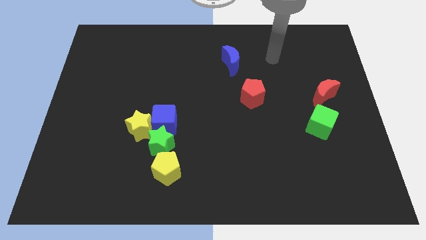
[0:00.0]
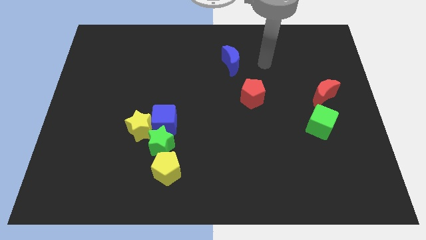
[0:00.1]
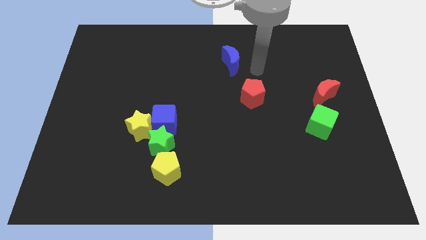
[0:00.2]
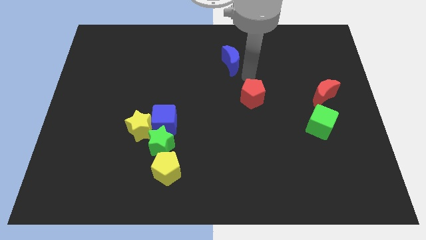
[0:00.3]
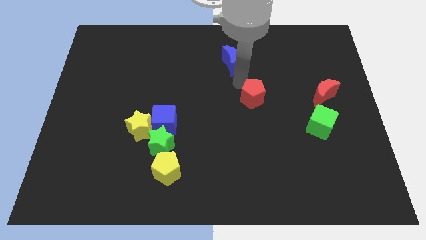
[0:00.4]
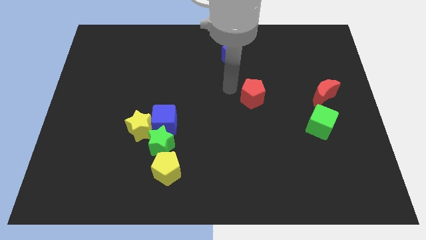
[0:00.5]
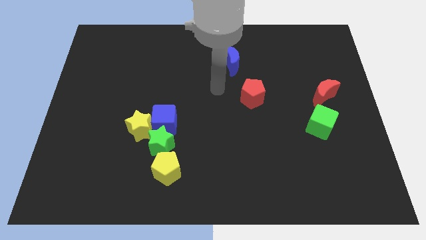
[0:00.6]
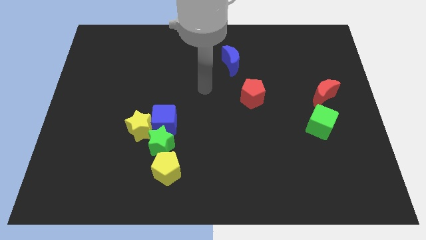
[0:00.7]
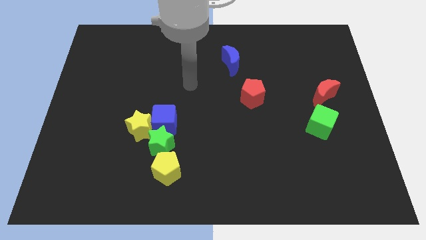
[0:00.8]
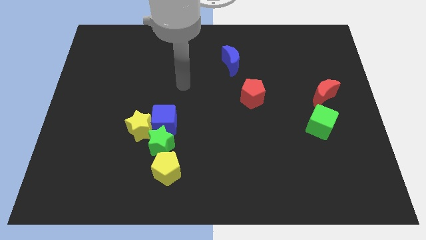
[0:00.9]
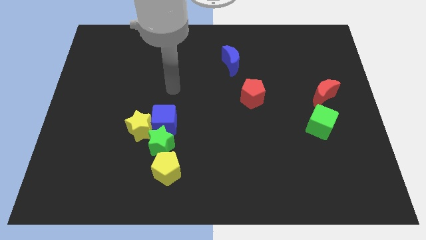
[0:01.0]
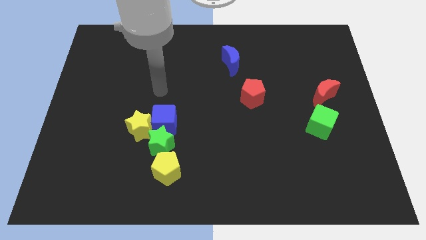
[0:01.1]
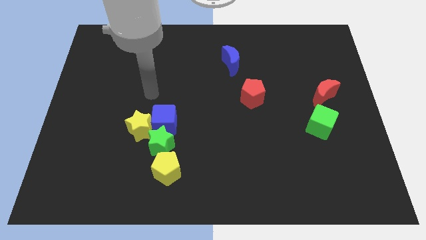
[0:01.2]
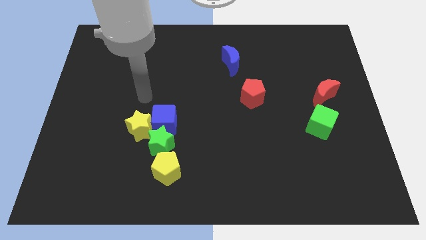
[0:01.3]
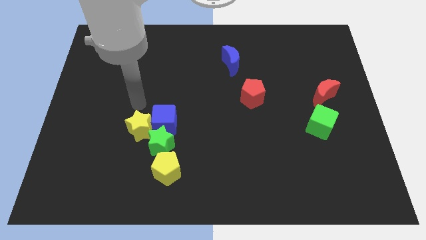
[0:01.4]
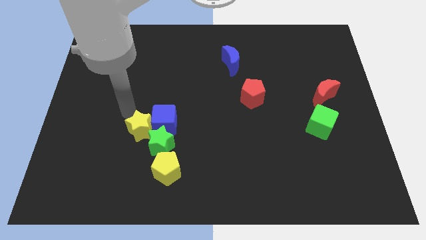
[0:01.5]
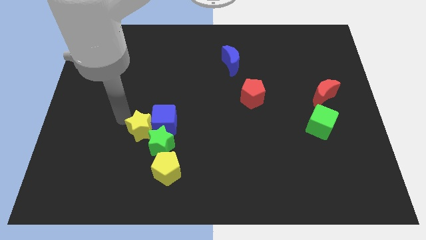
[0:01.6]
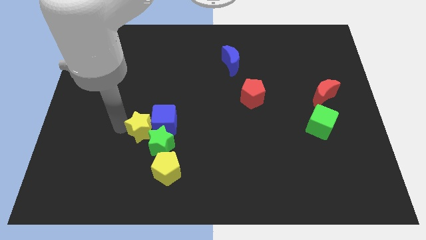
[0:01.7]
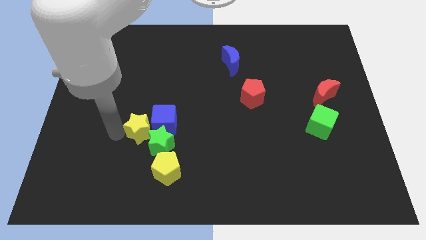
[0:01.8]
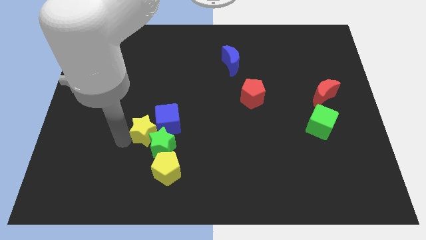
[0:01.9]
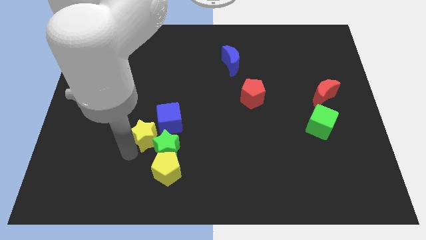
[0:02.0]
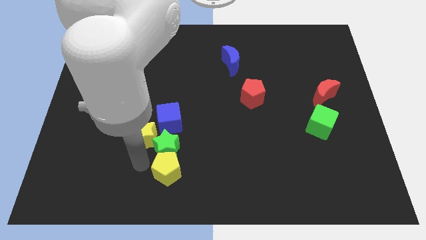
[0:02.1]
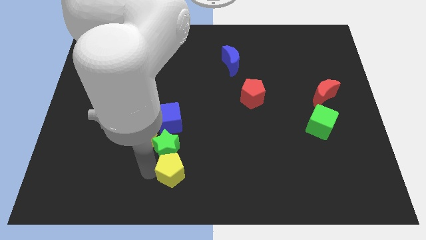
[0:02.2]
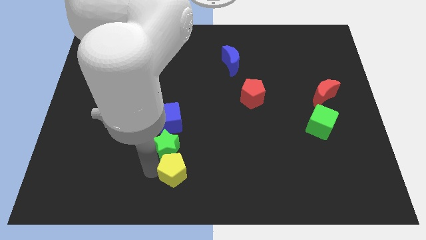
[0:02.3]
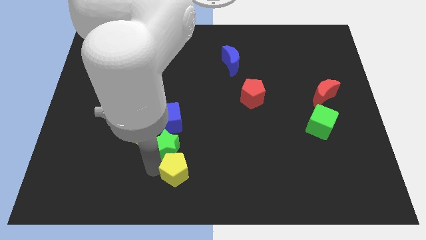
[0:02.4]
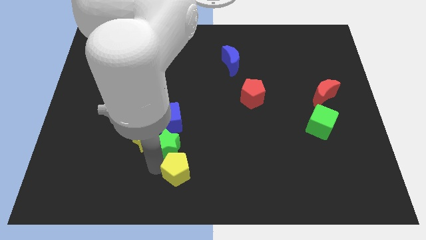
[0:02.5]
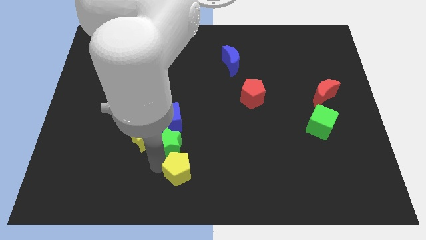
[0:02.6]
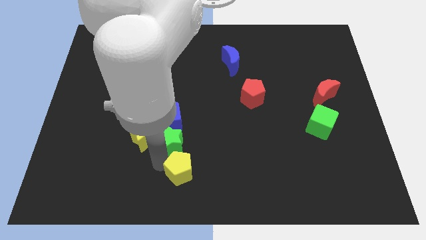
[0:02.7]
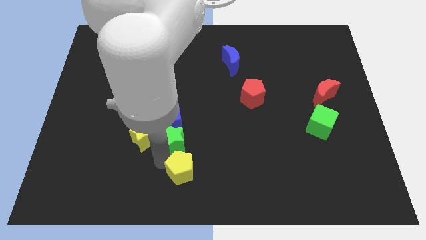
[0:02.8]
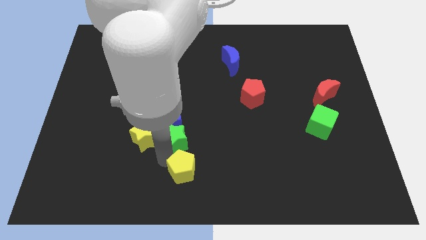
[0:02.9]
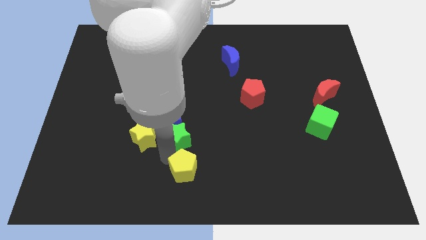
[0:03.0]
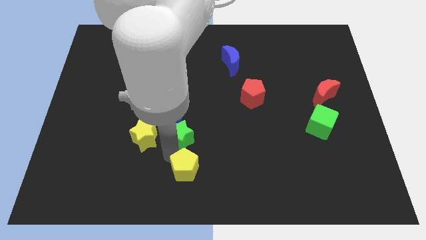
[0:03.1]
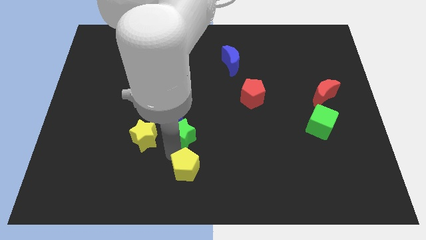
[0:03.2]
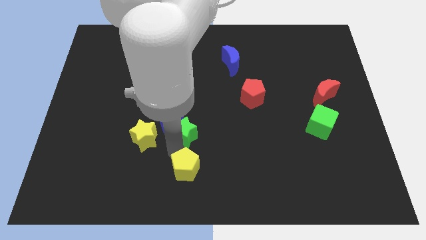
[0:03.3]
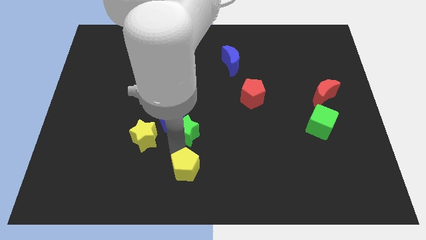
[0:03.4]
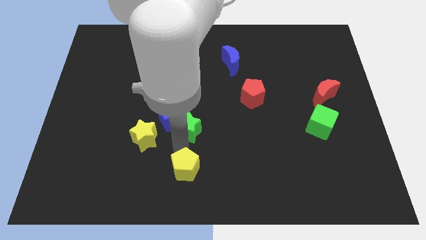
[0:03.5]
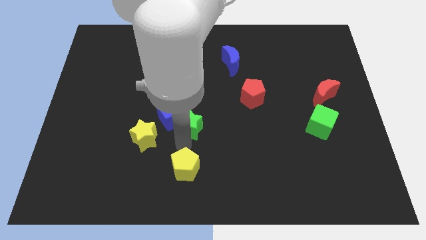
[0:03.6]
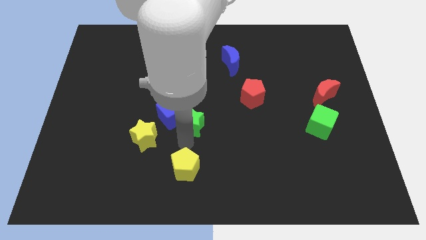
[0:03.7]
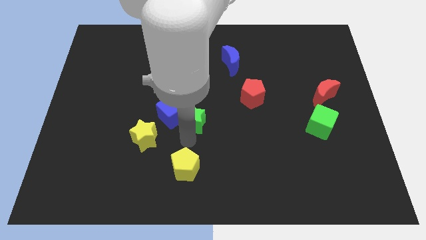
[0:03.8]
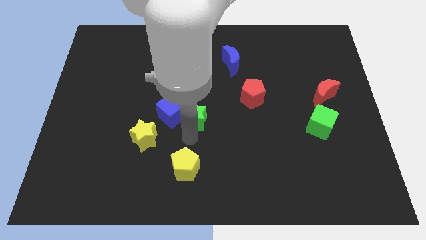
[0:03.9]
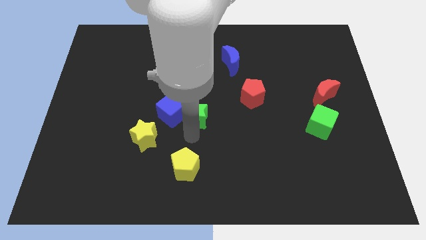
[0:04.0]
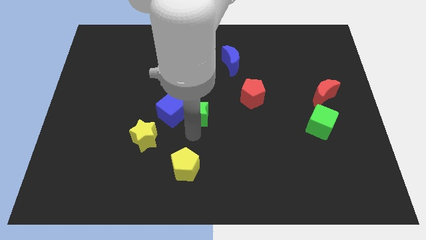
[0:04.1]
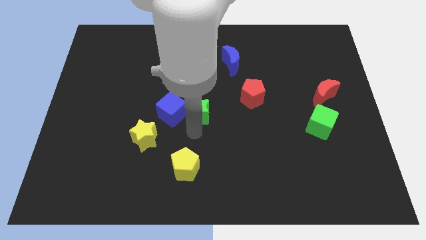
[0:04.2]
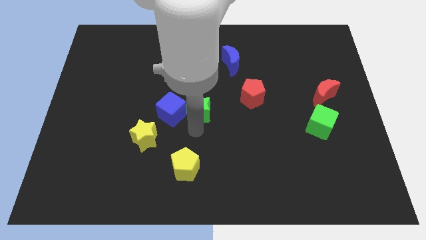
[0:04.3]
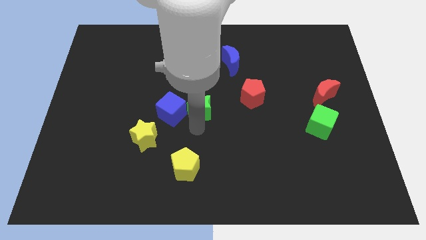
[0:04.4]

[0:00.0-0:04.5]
push the green star slightly upwards

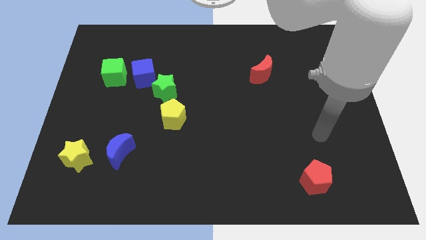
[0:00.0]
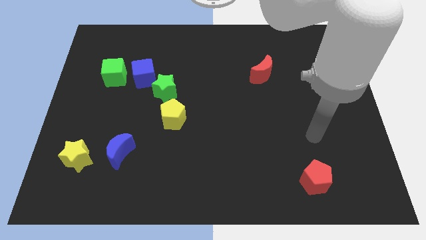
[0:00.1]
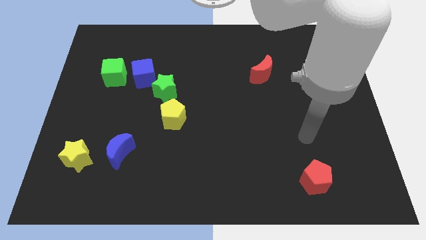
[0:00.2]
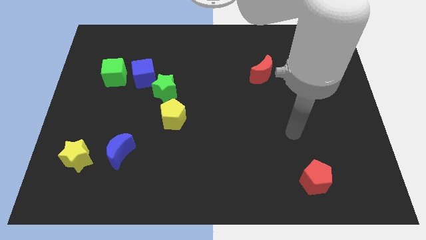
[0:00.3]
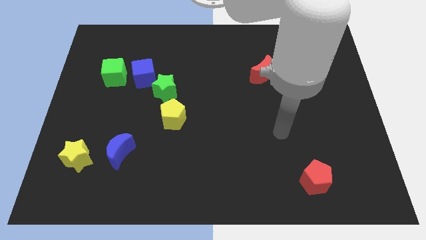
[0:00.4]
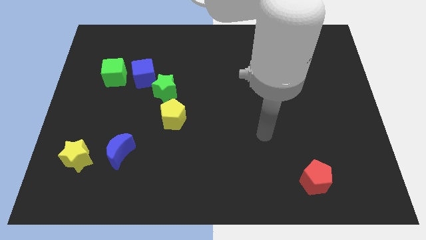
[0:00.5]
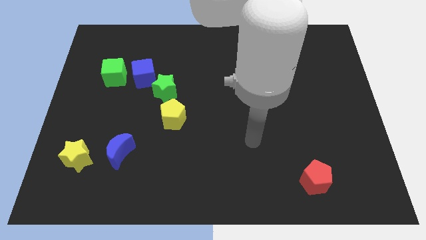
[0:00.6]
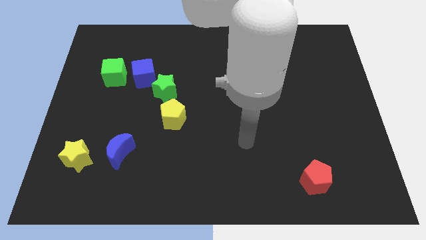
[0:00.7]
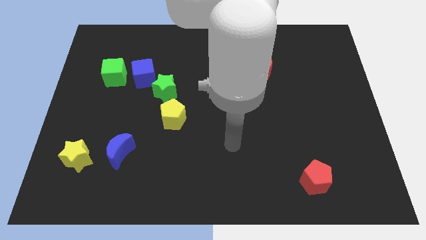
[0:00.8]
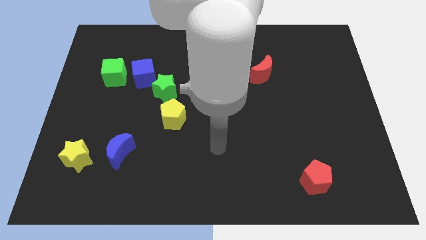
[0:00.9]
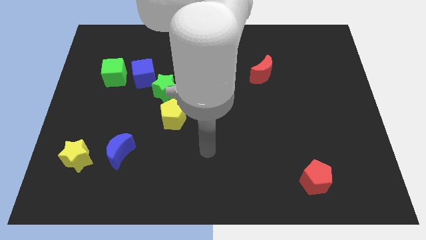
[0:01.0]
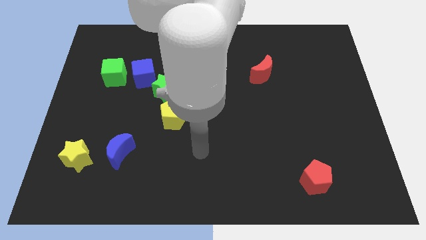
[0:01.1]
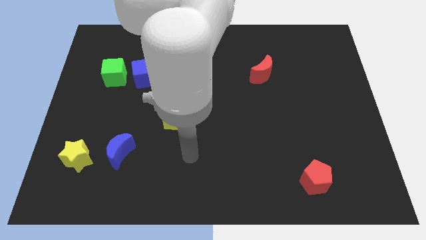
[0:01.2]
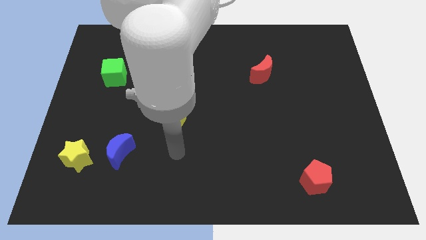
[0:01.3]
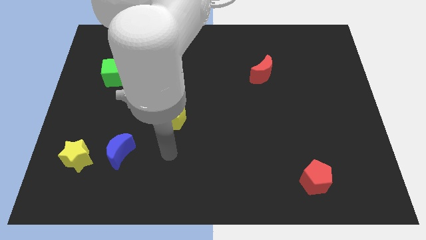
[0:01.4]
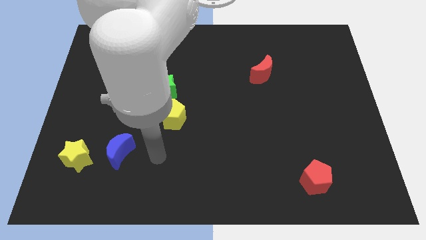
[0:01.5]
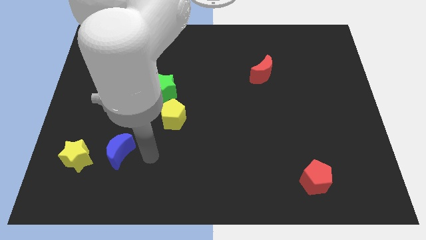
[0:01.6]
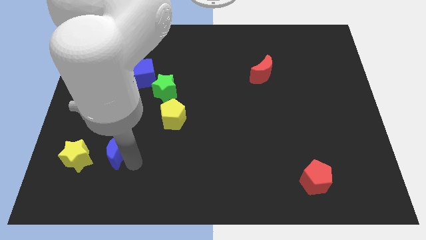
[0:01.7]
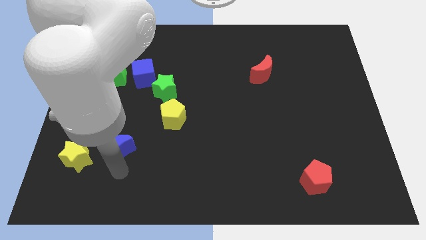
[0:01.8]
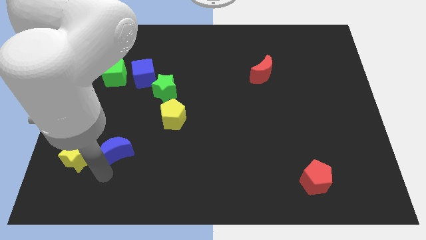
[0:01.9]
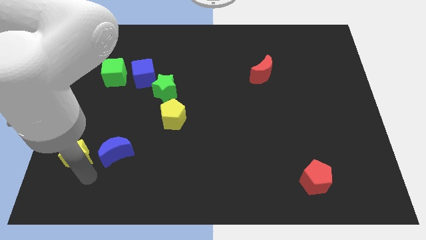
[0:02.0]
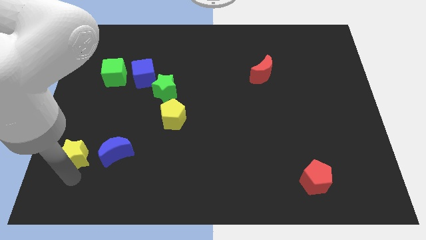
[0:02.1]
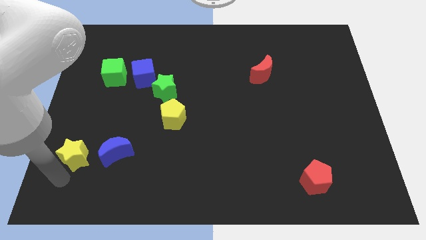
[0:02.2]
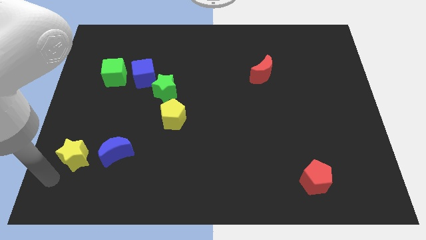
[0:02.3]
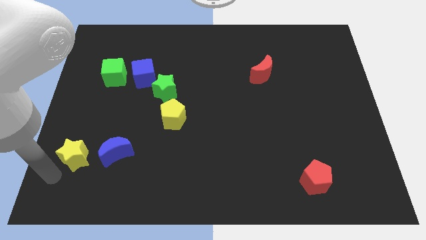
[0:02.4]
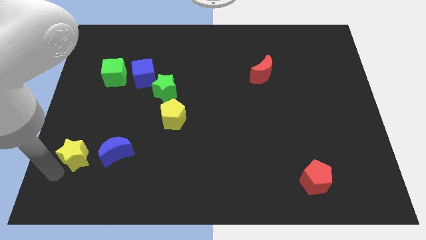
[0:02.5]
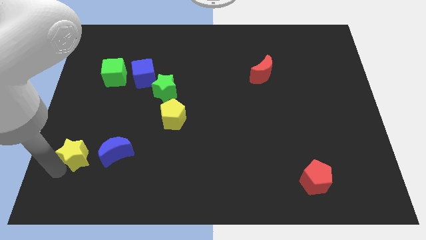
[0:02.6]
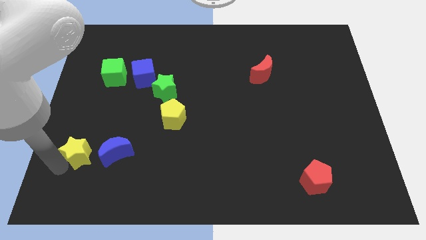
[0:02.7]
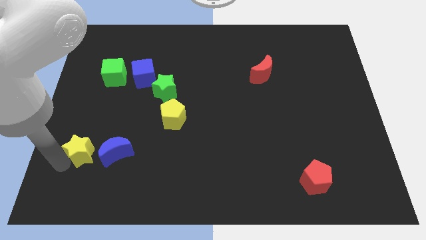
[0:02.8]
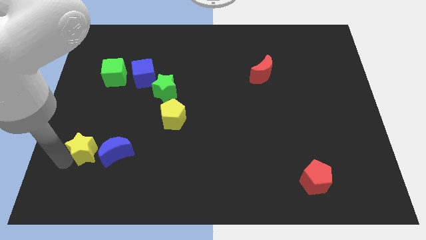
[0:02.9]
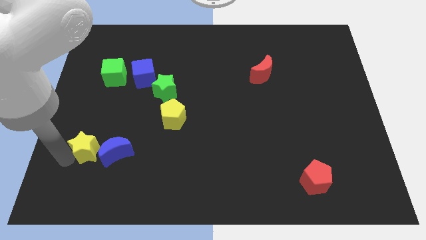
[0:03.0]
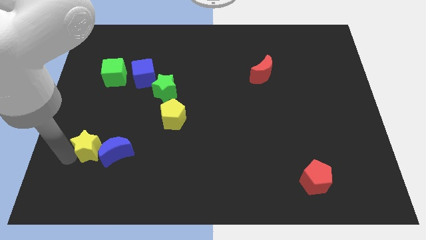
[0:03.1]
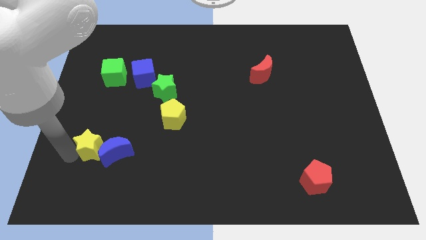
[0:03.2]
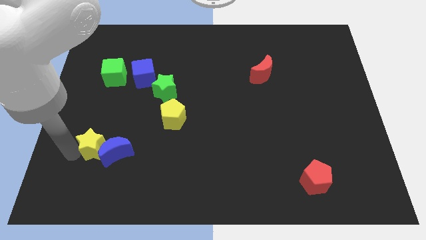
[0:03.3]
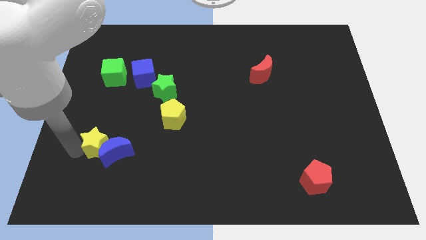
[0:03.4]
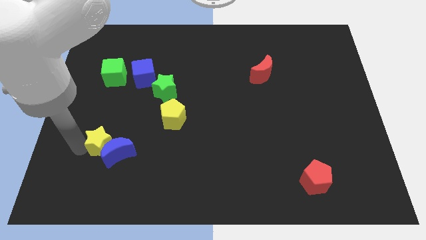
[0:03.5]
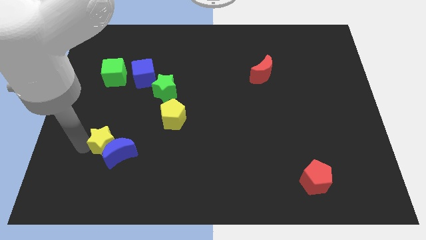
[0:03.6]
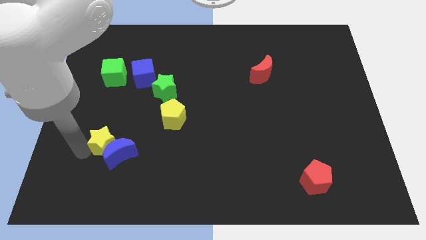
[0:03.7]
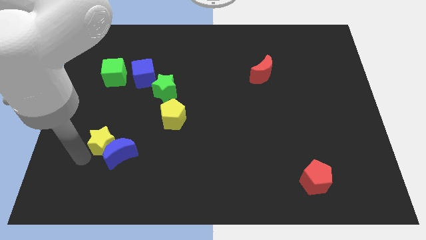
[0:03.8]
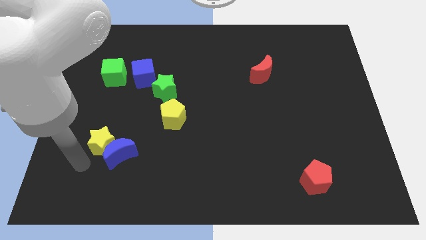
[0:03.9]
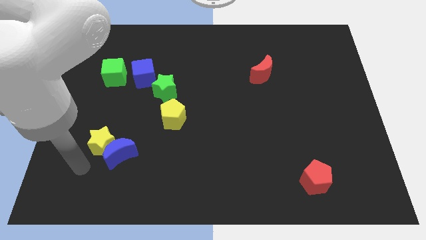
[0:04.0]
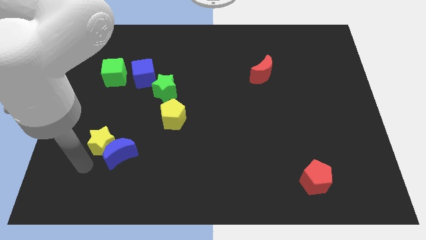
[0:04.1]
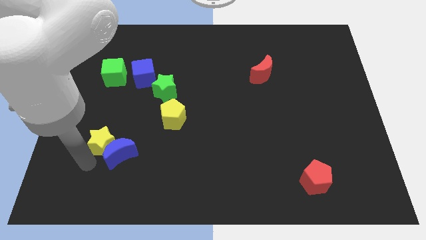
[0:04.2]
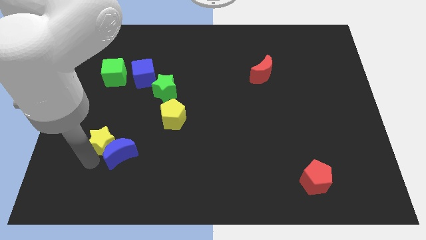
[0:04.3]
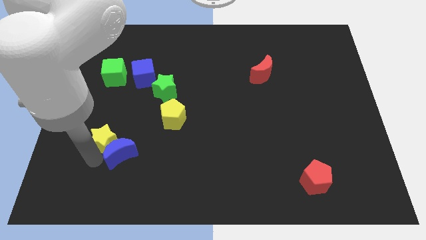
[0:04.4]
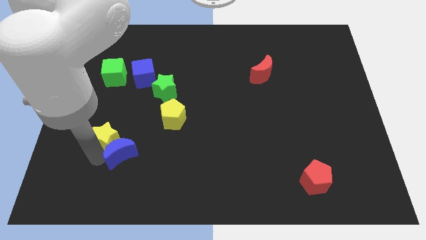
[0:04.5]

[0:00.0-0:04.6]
slightly slide the yellow star up and then right
